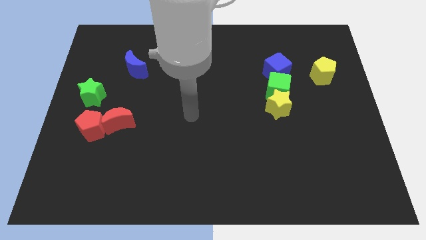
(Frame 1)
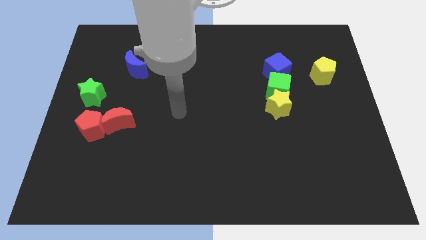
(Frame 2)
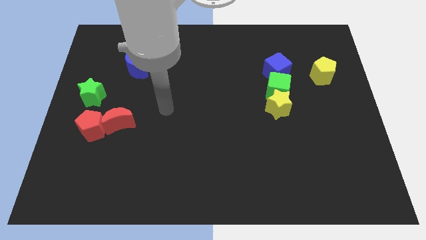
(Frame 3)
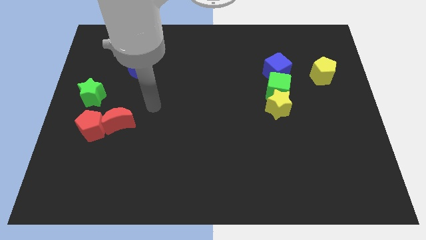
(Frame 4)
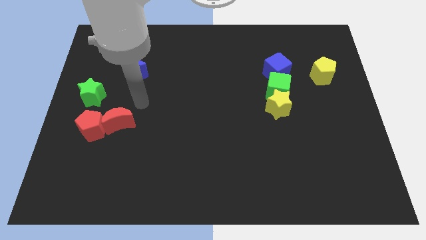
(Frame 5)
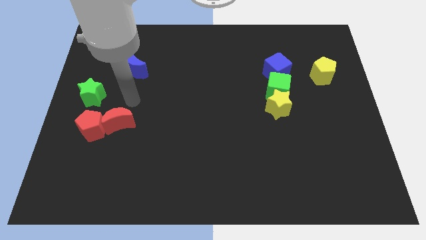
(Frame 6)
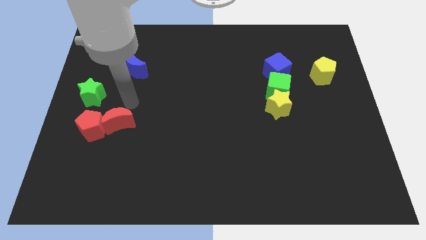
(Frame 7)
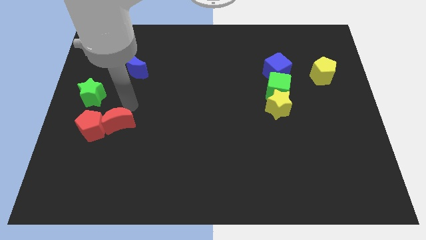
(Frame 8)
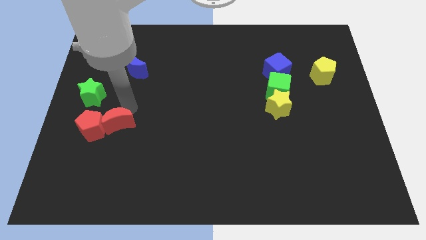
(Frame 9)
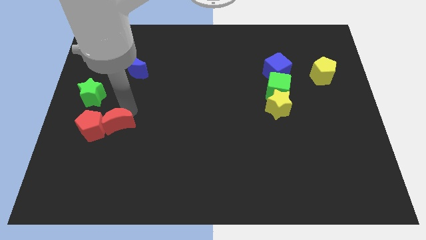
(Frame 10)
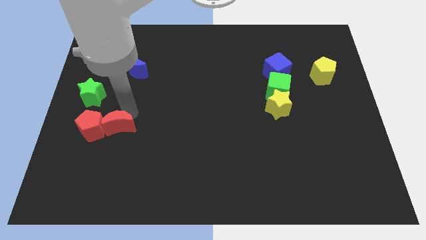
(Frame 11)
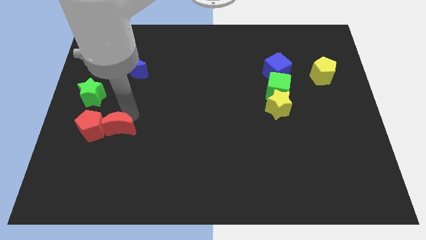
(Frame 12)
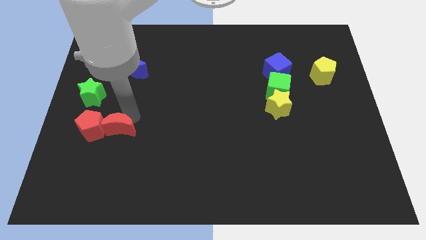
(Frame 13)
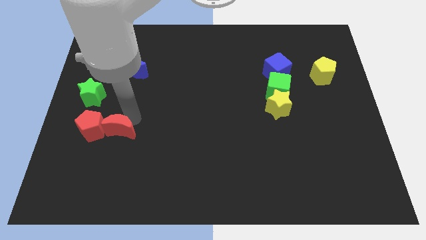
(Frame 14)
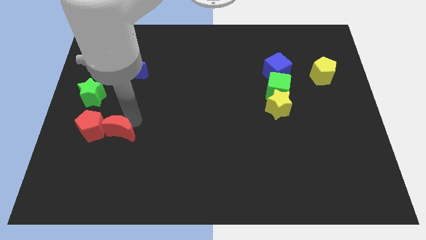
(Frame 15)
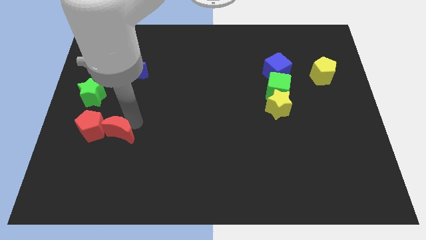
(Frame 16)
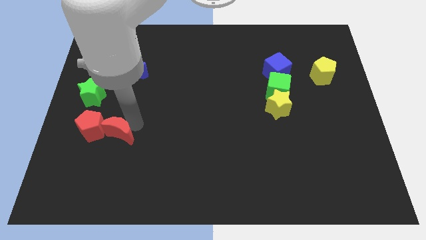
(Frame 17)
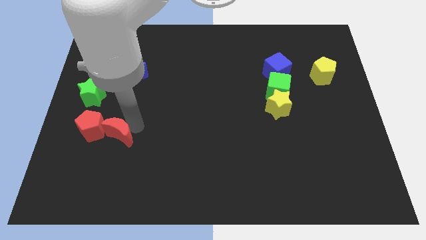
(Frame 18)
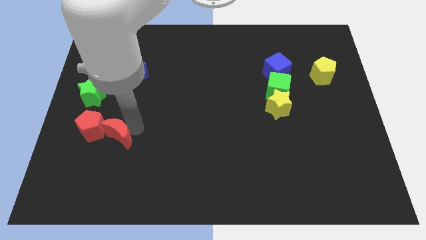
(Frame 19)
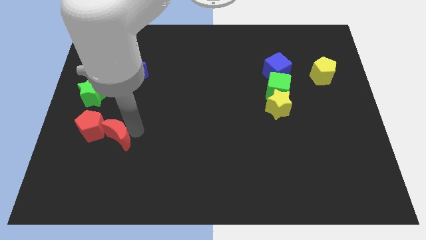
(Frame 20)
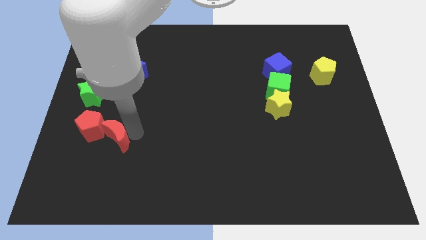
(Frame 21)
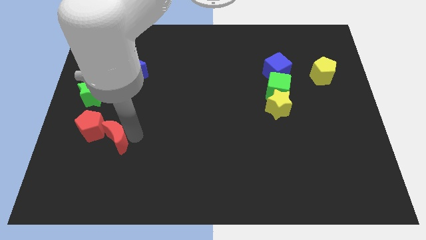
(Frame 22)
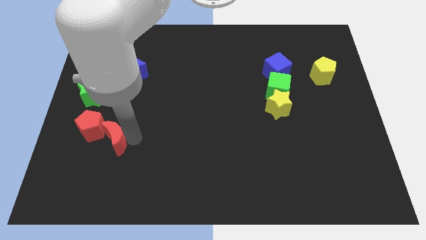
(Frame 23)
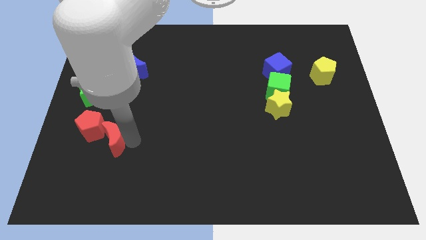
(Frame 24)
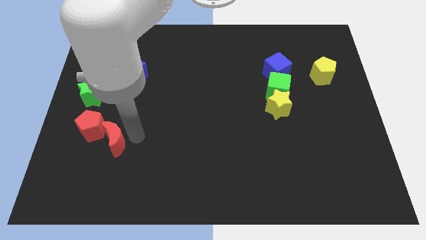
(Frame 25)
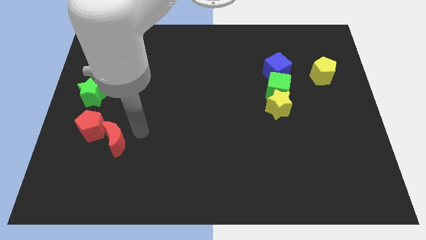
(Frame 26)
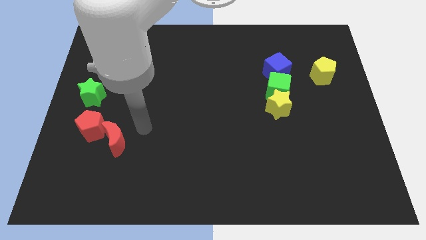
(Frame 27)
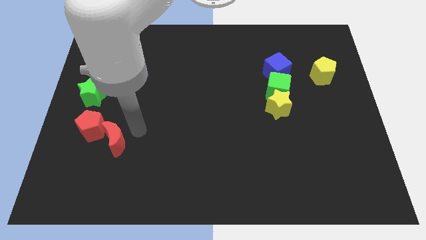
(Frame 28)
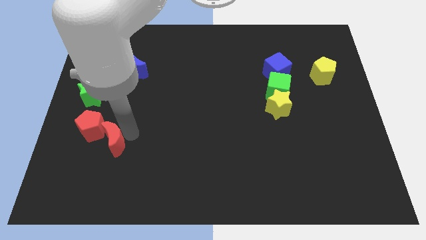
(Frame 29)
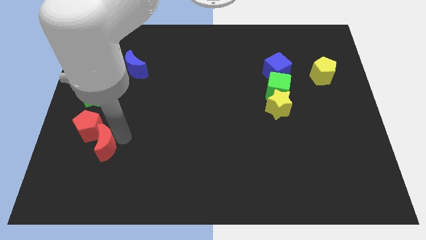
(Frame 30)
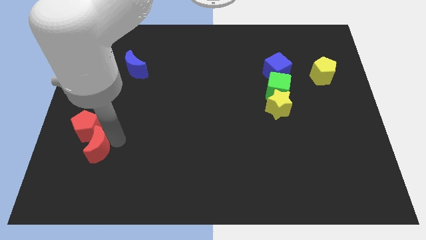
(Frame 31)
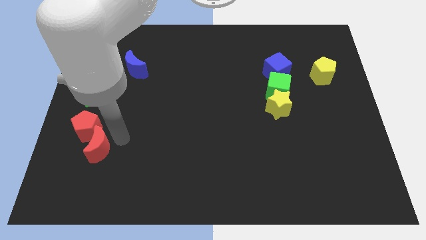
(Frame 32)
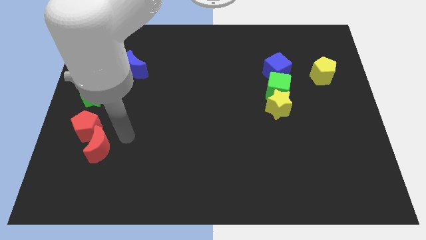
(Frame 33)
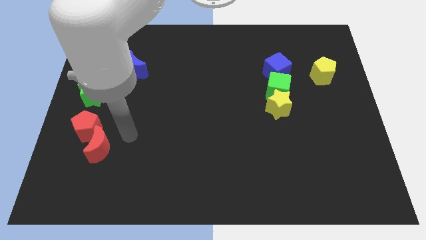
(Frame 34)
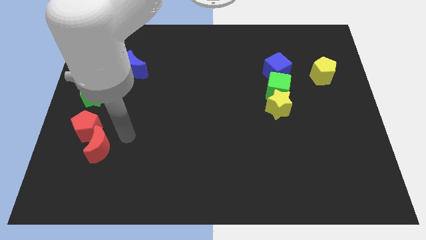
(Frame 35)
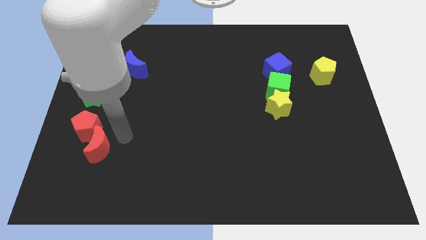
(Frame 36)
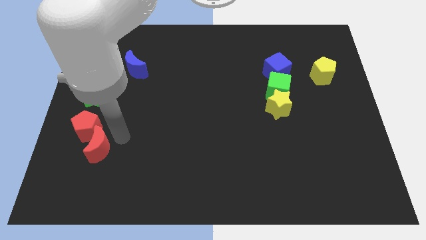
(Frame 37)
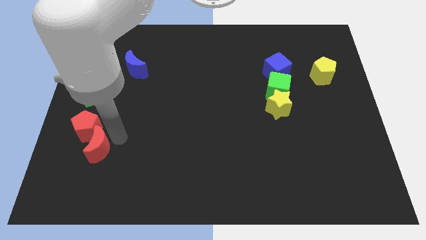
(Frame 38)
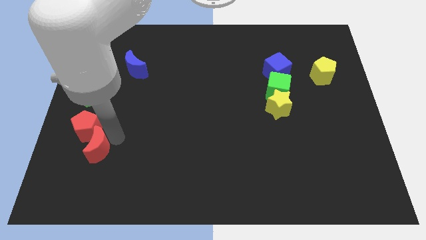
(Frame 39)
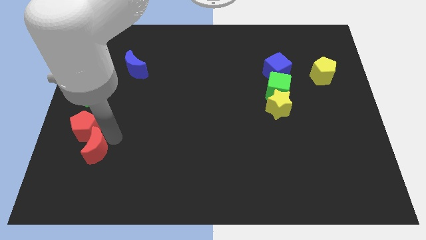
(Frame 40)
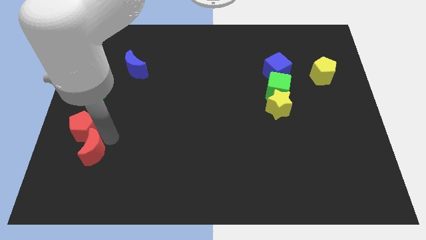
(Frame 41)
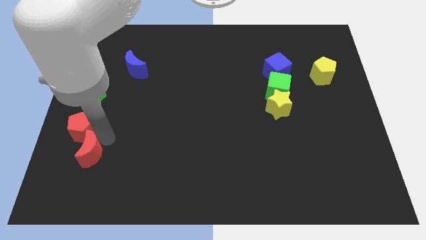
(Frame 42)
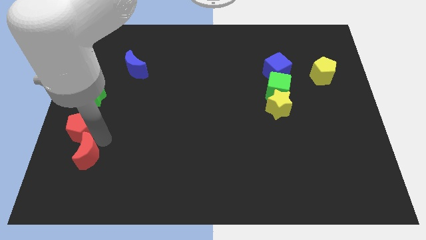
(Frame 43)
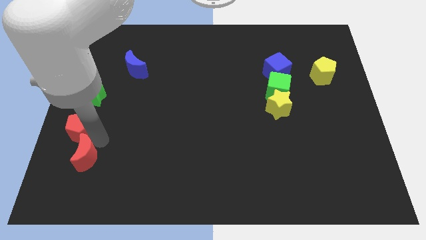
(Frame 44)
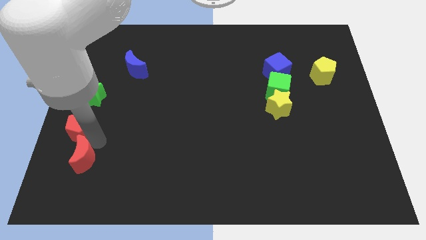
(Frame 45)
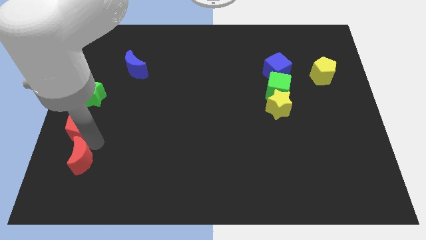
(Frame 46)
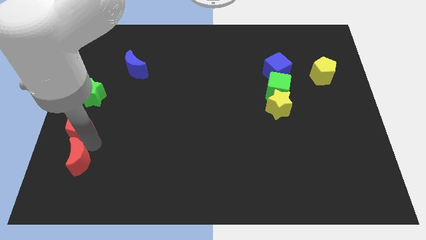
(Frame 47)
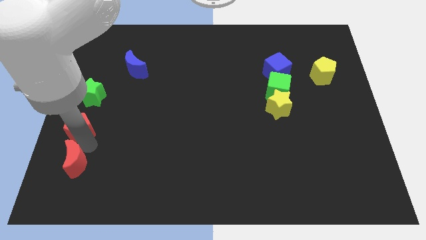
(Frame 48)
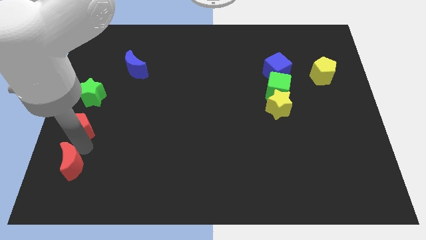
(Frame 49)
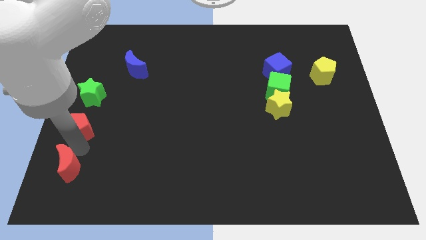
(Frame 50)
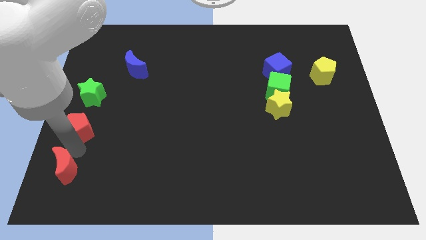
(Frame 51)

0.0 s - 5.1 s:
move the red moon to the bottom left of the board

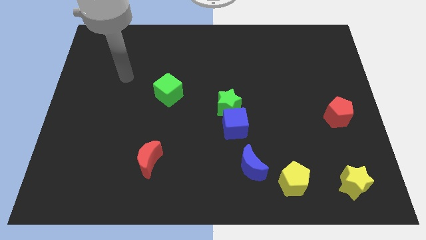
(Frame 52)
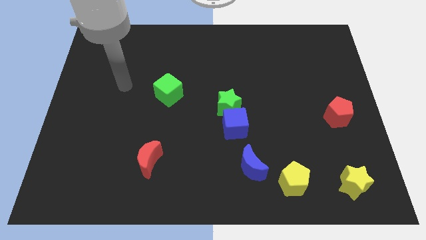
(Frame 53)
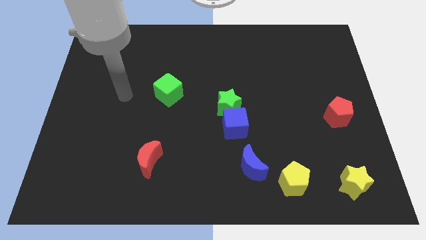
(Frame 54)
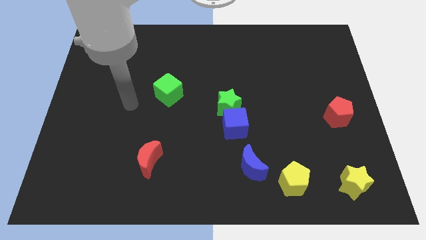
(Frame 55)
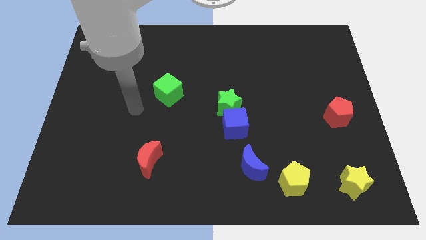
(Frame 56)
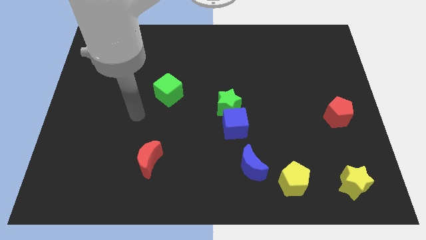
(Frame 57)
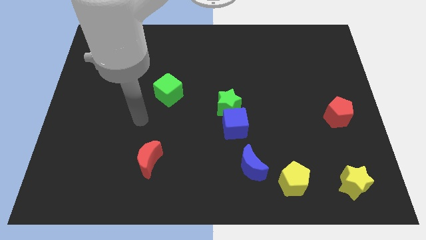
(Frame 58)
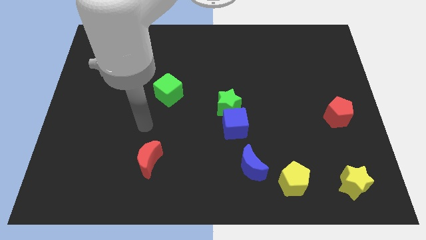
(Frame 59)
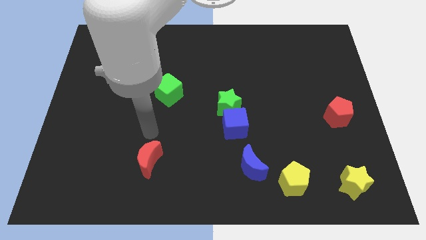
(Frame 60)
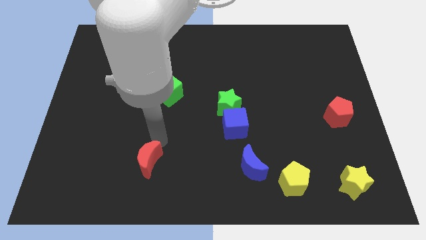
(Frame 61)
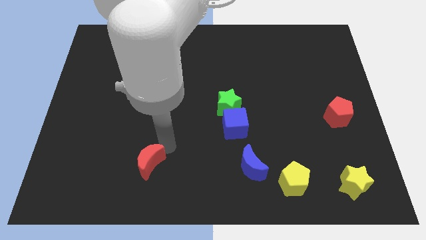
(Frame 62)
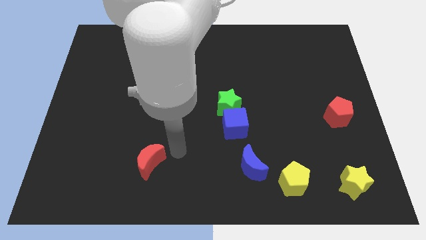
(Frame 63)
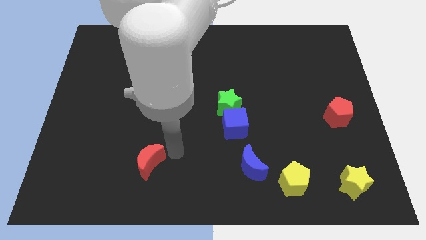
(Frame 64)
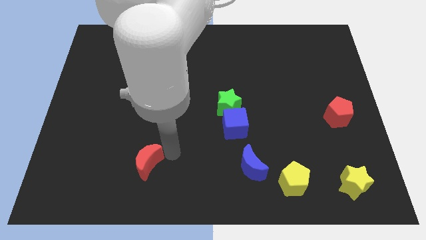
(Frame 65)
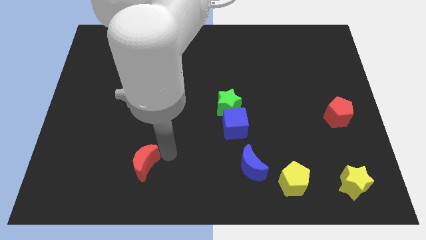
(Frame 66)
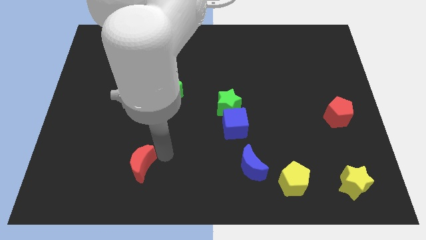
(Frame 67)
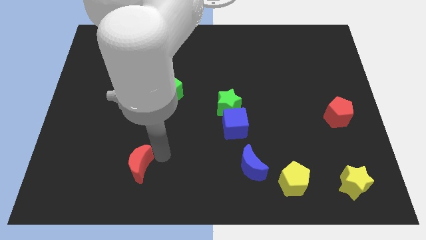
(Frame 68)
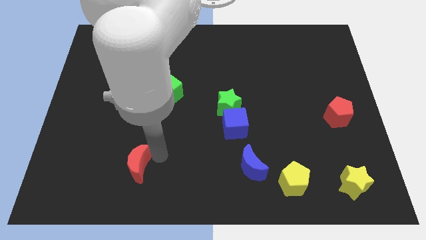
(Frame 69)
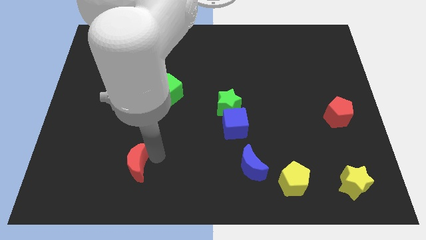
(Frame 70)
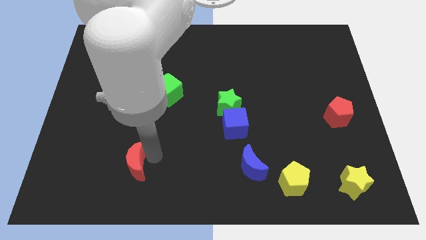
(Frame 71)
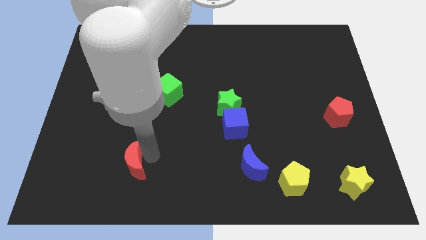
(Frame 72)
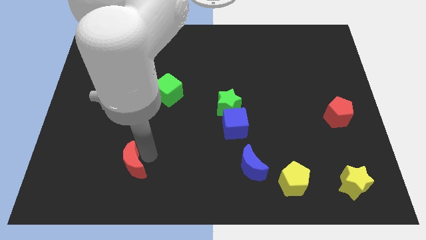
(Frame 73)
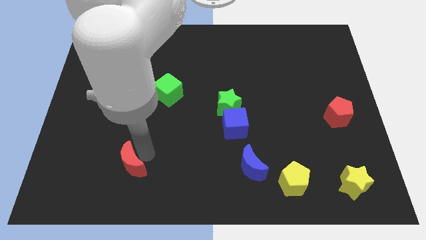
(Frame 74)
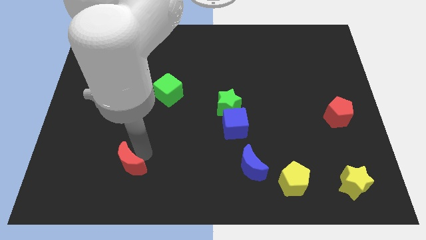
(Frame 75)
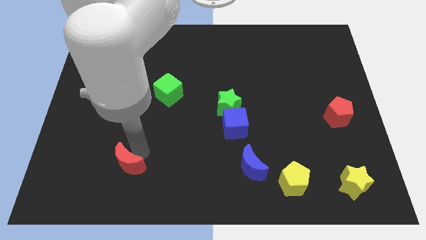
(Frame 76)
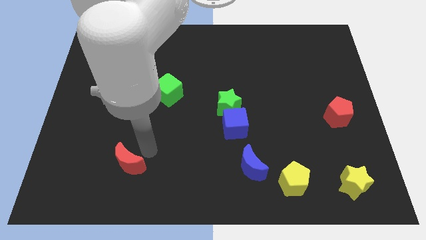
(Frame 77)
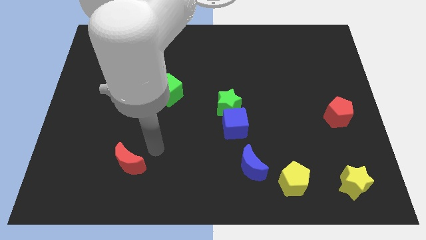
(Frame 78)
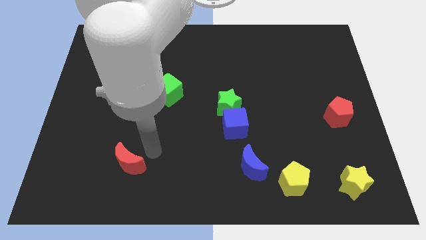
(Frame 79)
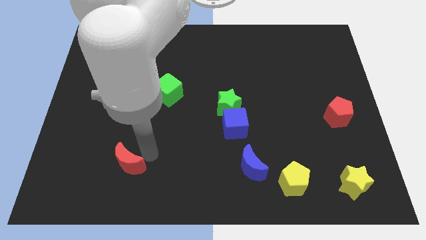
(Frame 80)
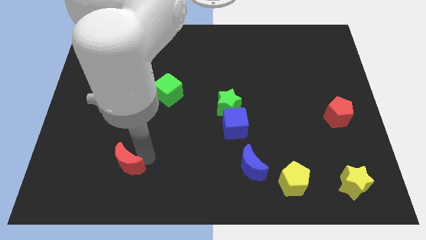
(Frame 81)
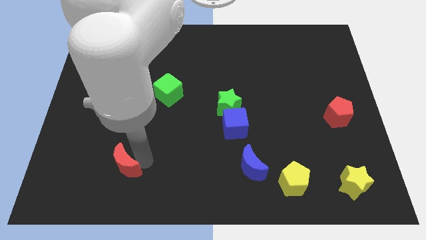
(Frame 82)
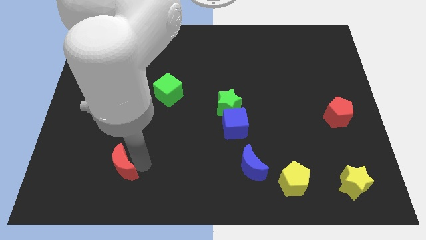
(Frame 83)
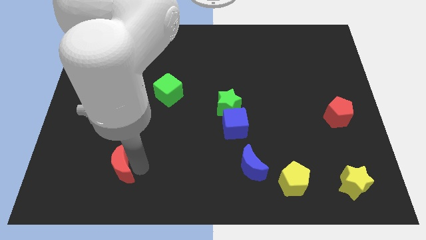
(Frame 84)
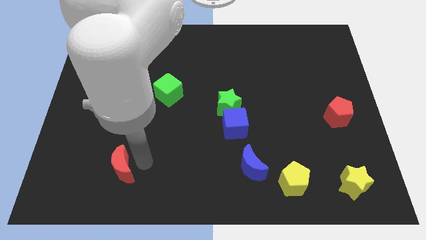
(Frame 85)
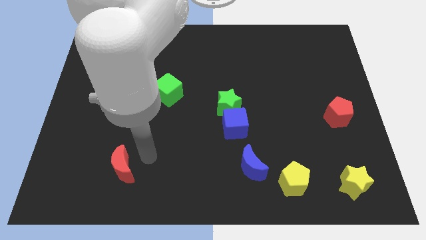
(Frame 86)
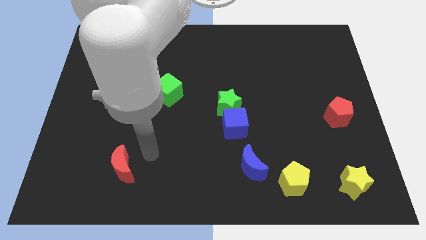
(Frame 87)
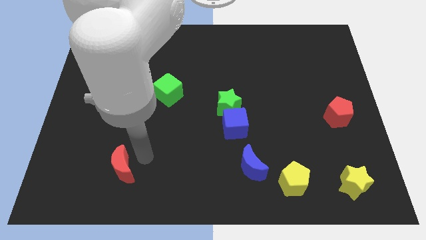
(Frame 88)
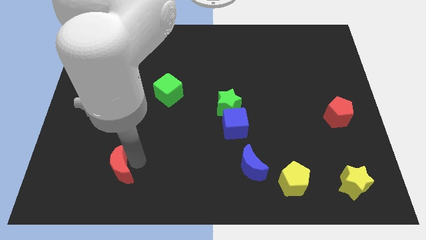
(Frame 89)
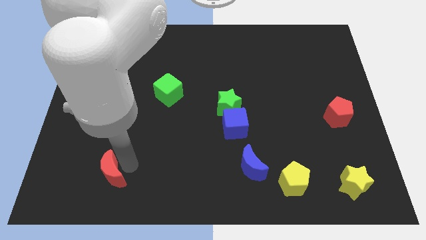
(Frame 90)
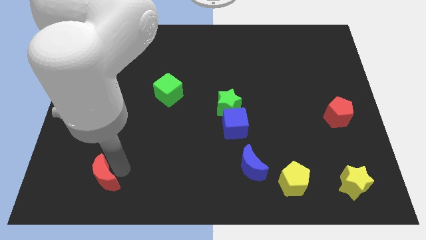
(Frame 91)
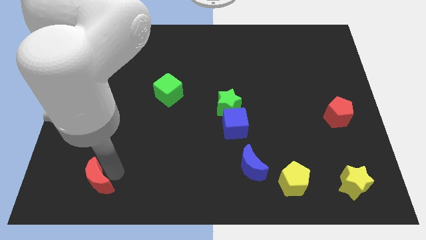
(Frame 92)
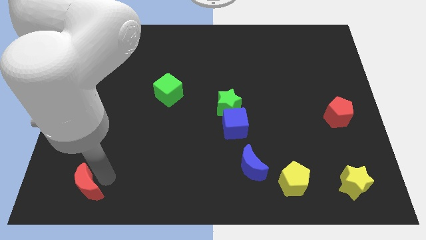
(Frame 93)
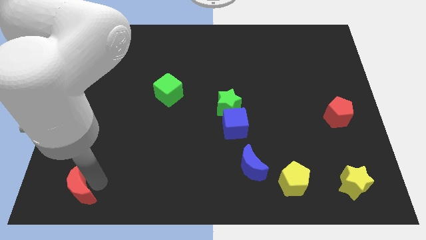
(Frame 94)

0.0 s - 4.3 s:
slide the red moon to the bottom left
